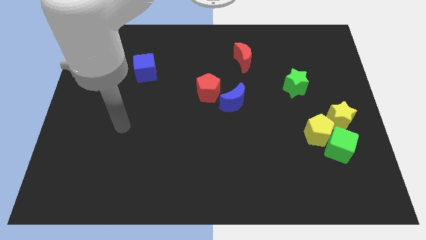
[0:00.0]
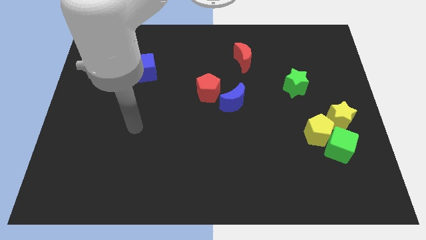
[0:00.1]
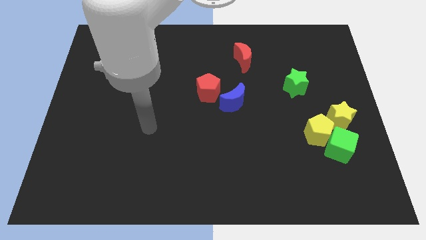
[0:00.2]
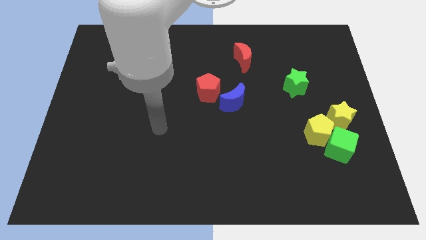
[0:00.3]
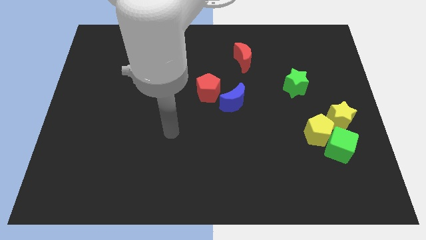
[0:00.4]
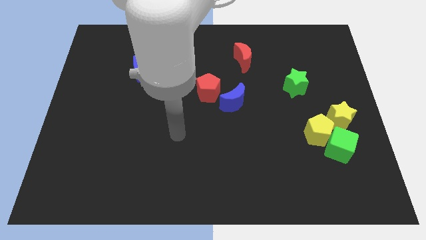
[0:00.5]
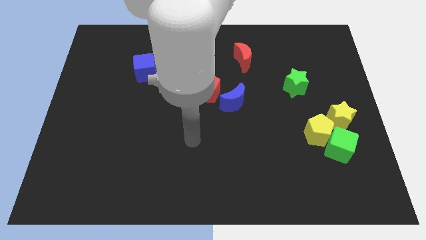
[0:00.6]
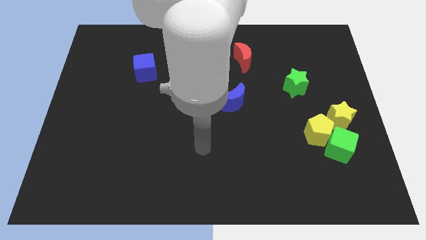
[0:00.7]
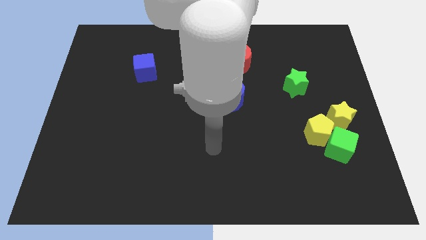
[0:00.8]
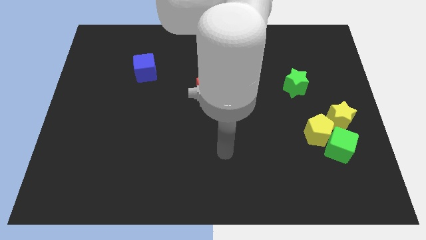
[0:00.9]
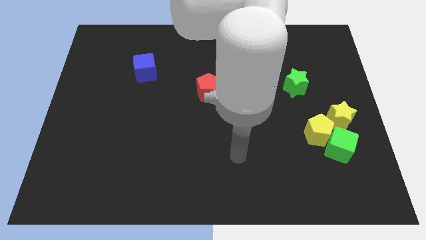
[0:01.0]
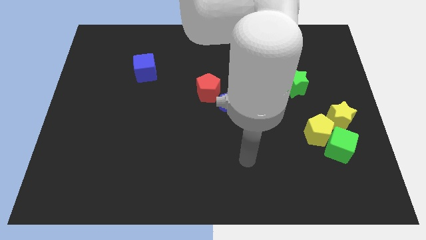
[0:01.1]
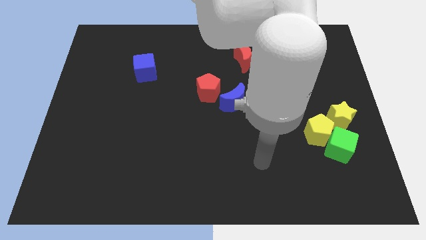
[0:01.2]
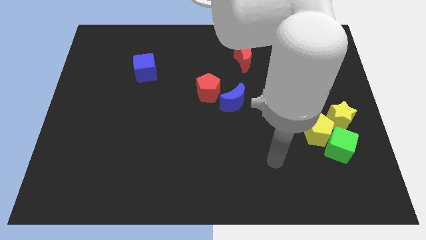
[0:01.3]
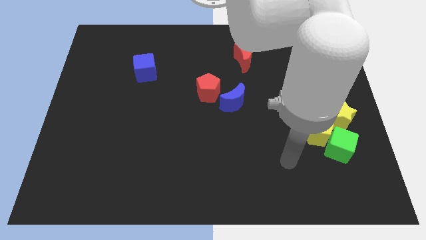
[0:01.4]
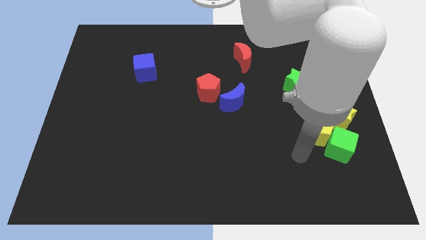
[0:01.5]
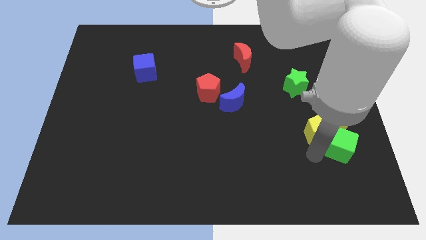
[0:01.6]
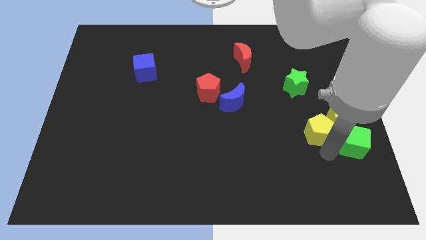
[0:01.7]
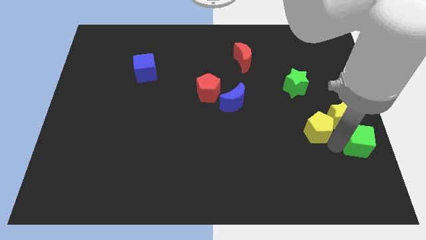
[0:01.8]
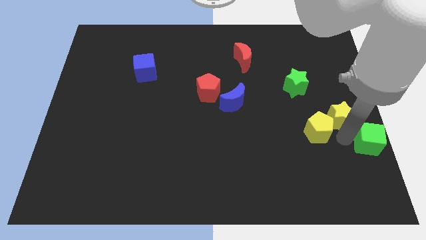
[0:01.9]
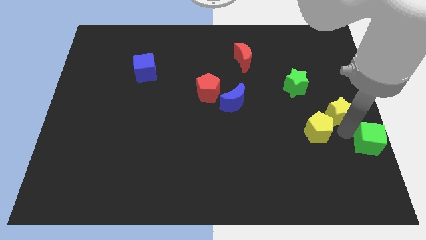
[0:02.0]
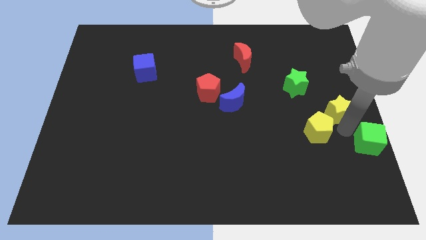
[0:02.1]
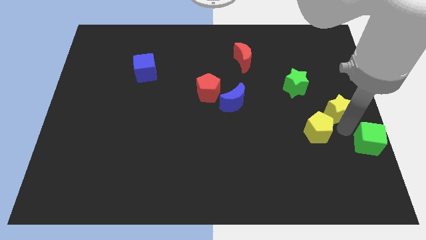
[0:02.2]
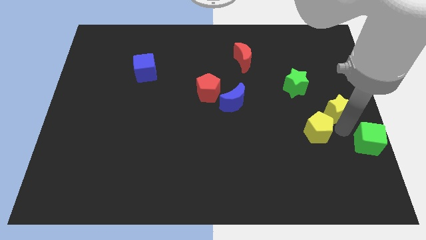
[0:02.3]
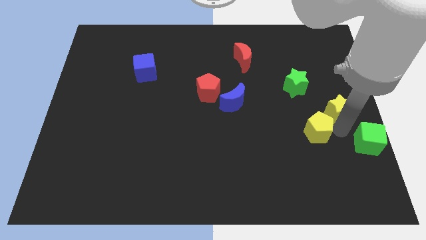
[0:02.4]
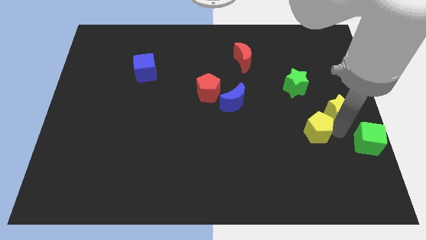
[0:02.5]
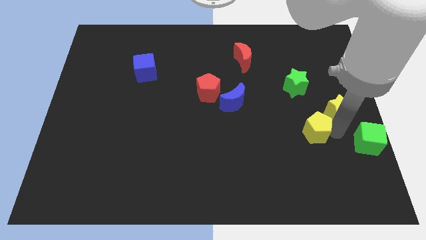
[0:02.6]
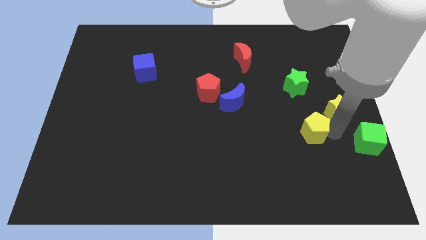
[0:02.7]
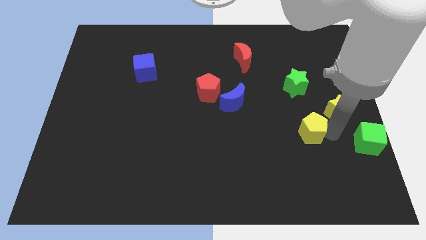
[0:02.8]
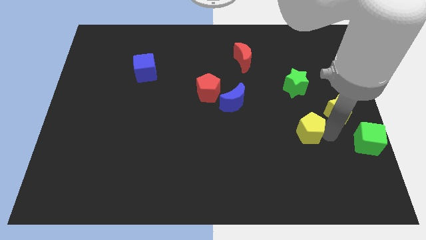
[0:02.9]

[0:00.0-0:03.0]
move the yellow pentagon away from the green cube and yellow star

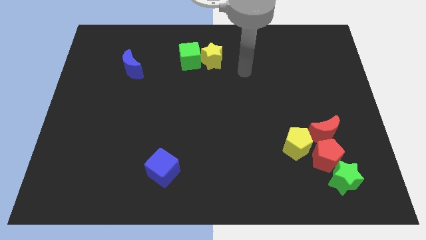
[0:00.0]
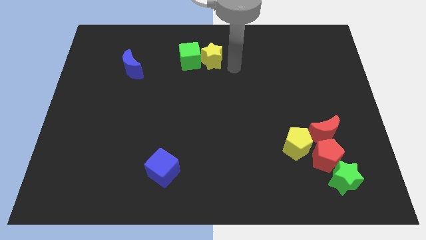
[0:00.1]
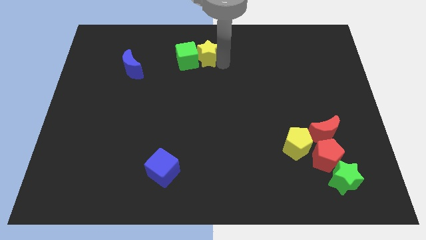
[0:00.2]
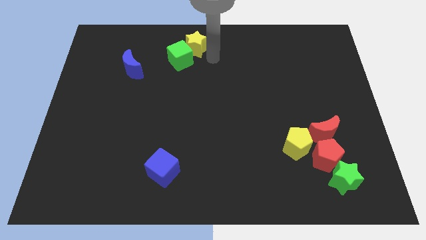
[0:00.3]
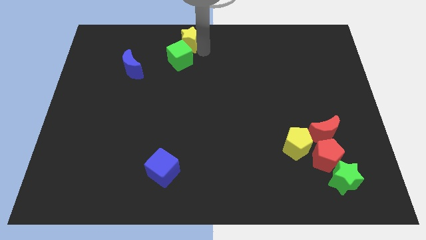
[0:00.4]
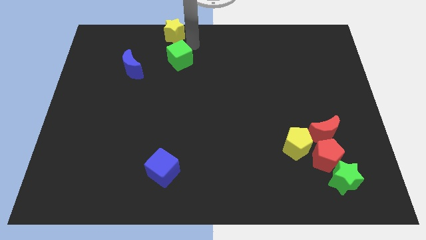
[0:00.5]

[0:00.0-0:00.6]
separate the green cube from the yellow star

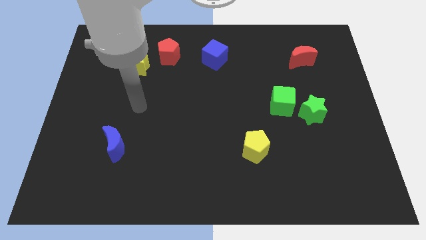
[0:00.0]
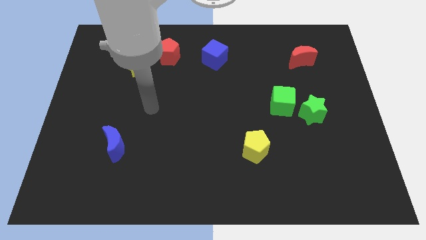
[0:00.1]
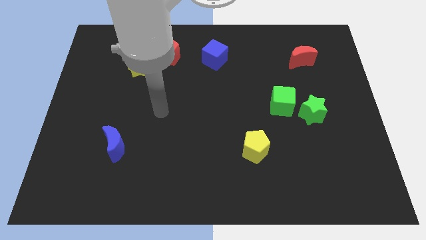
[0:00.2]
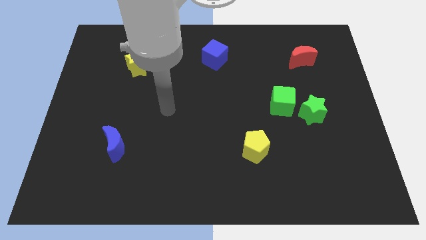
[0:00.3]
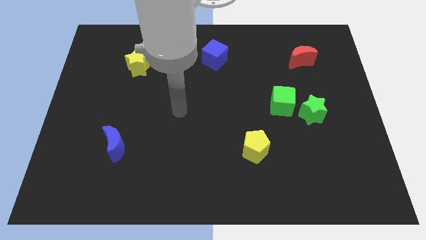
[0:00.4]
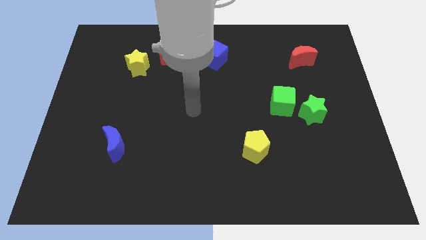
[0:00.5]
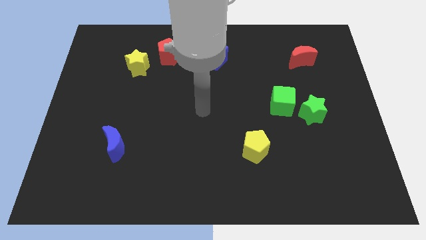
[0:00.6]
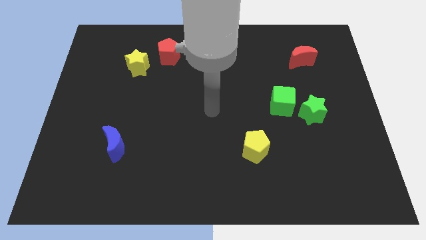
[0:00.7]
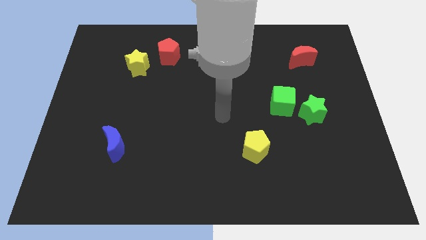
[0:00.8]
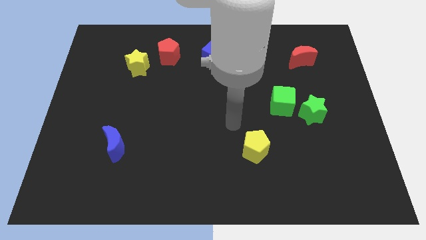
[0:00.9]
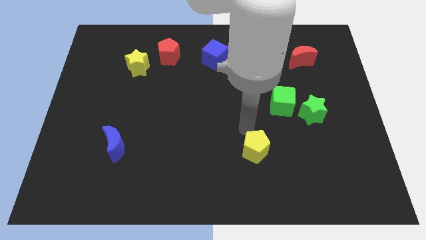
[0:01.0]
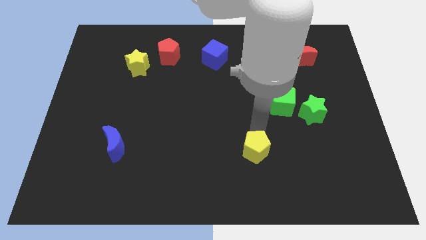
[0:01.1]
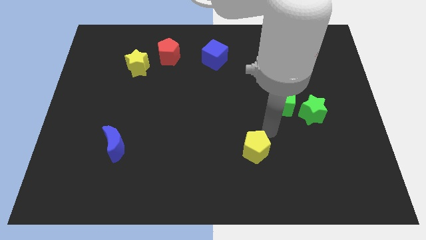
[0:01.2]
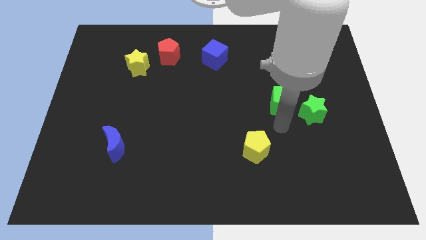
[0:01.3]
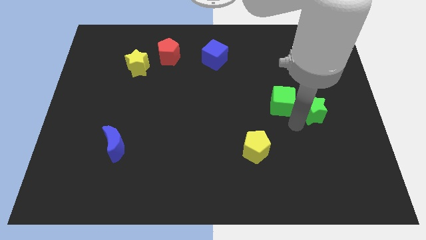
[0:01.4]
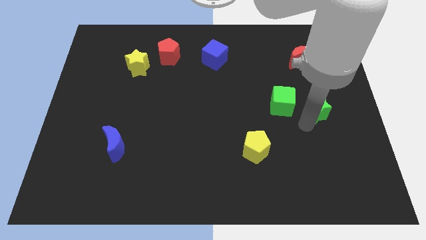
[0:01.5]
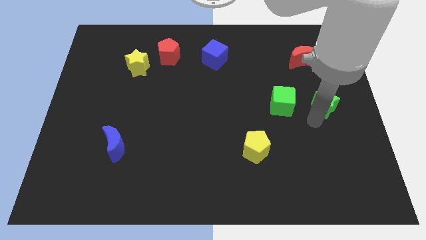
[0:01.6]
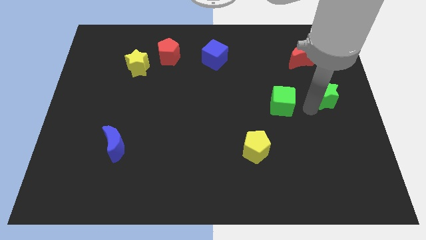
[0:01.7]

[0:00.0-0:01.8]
pull the green cube apart from the green star

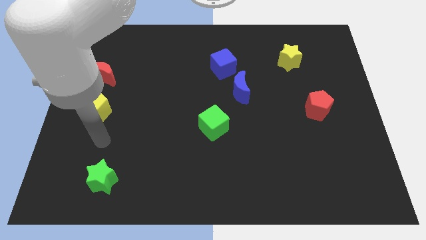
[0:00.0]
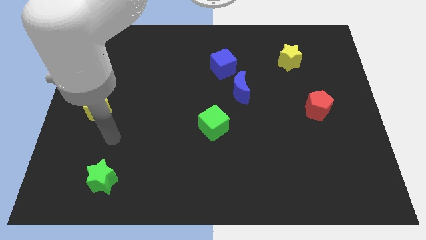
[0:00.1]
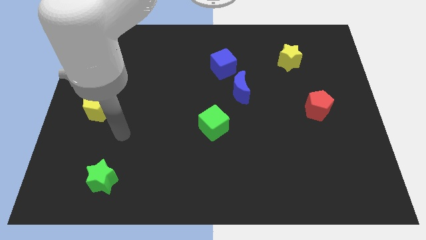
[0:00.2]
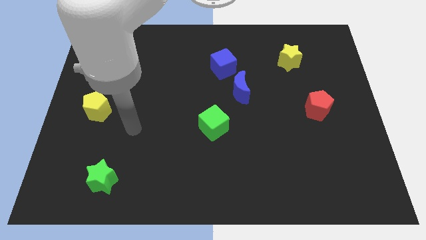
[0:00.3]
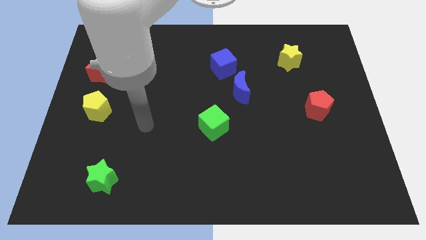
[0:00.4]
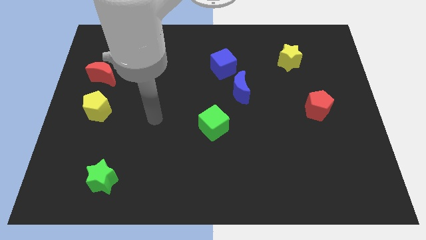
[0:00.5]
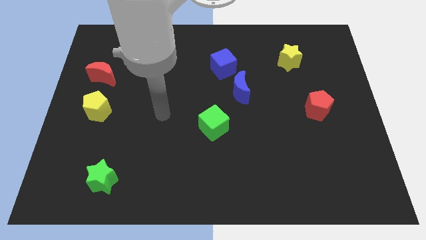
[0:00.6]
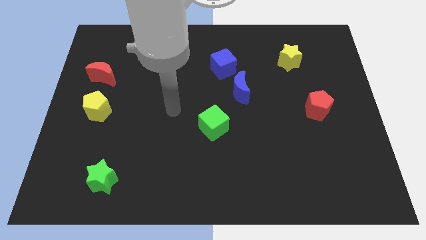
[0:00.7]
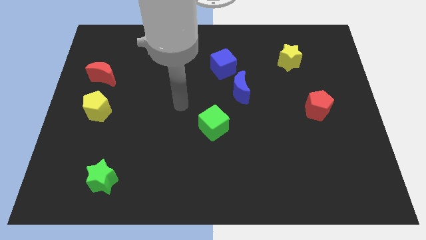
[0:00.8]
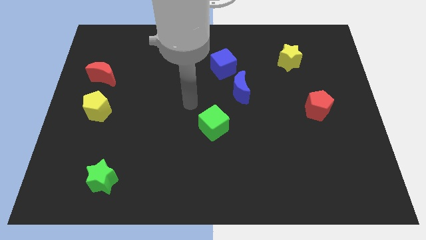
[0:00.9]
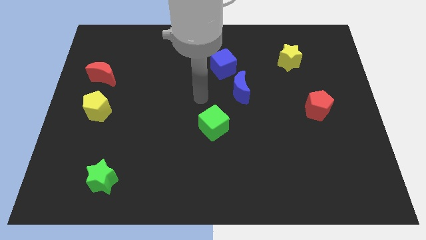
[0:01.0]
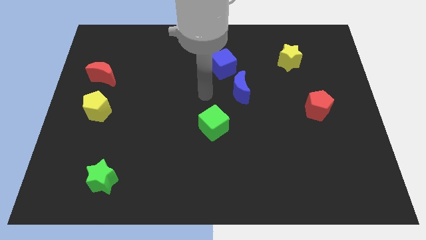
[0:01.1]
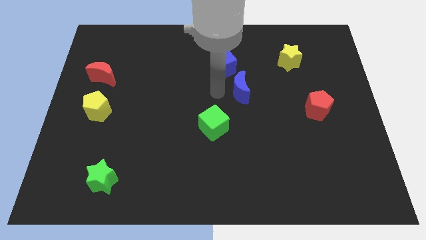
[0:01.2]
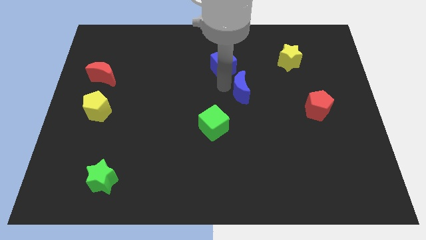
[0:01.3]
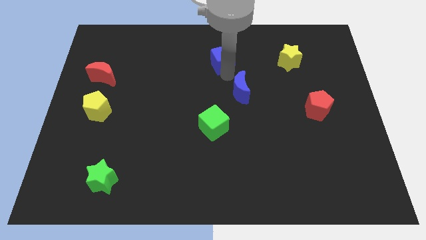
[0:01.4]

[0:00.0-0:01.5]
separate the blue moon from the blue cube

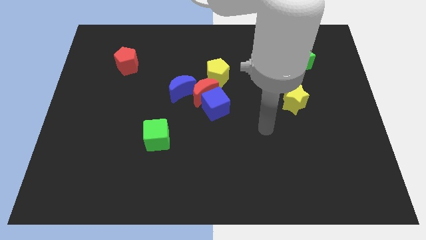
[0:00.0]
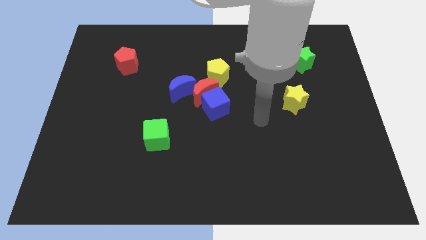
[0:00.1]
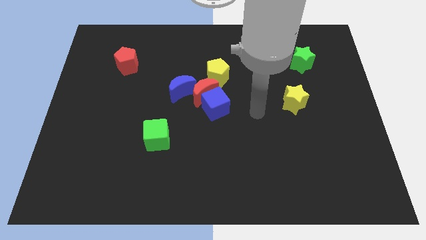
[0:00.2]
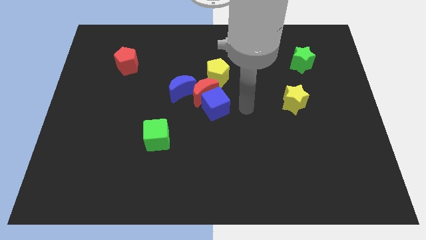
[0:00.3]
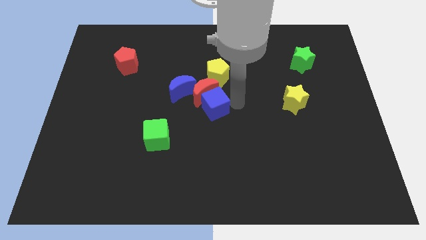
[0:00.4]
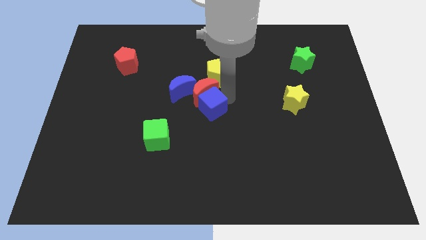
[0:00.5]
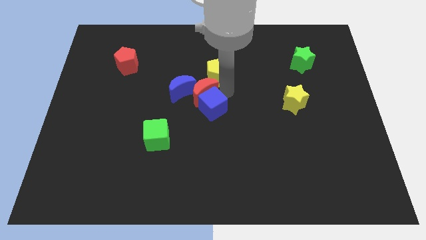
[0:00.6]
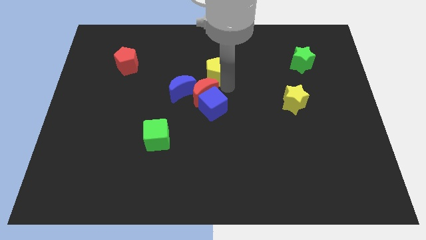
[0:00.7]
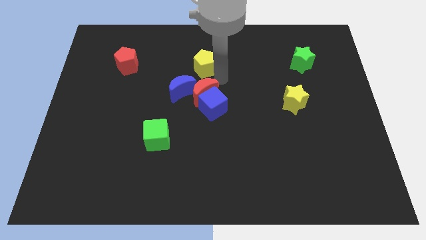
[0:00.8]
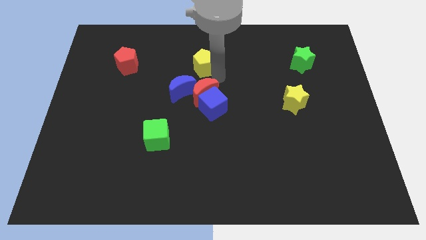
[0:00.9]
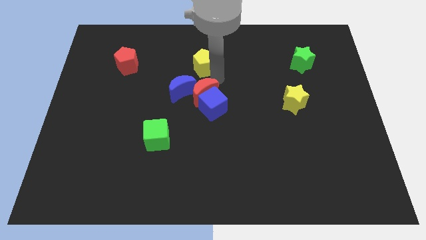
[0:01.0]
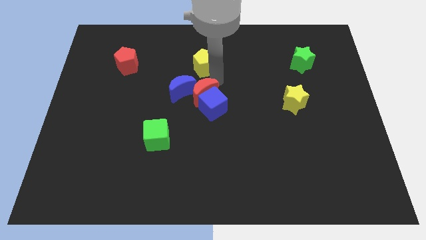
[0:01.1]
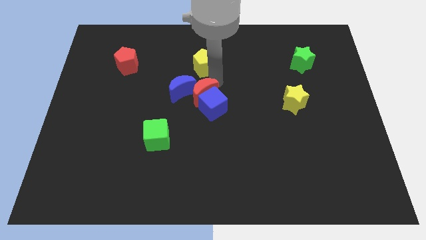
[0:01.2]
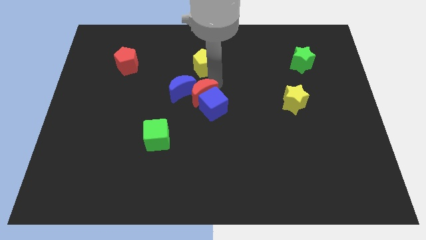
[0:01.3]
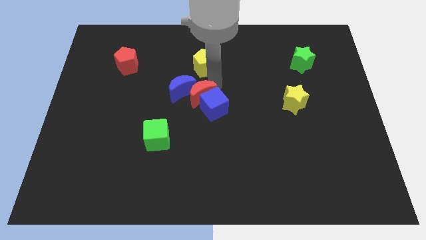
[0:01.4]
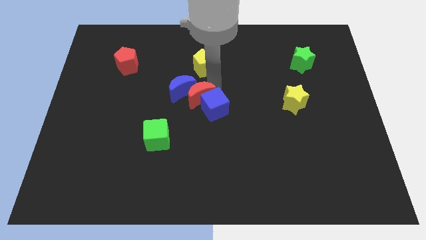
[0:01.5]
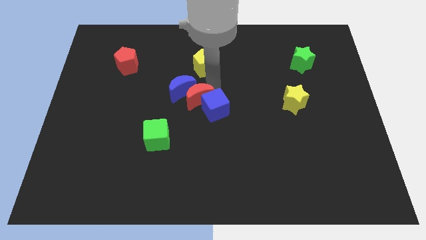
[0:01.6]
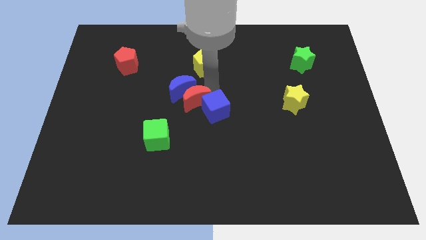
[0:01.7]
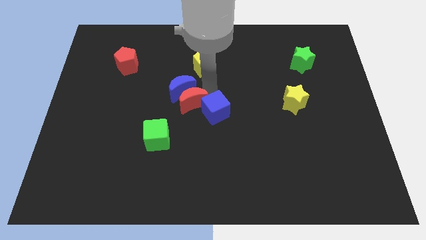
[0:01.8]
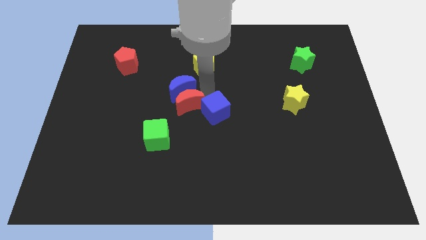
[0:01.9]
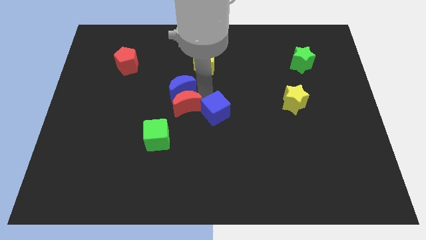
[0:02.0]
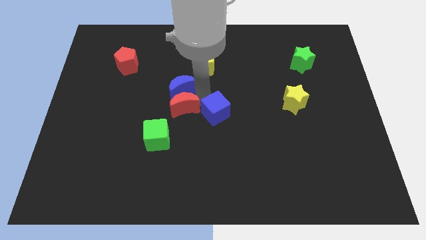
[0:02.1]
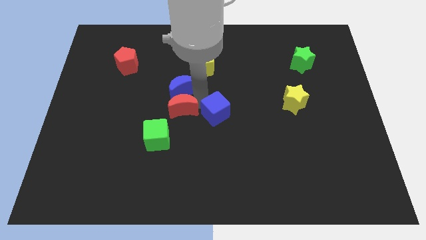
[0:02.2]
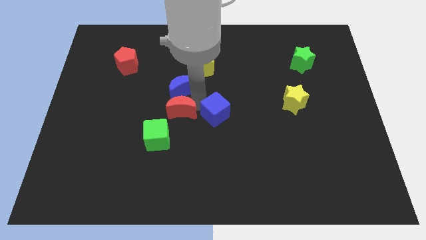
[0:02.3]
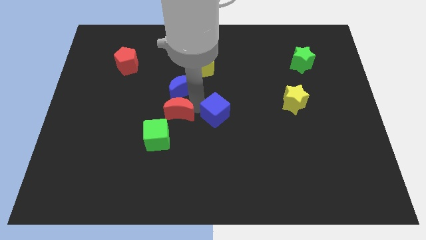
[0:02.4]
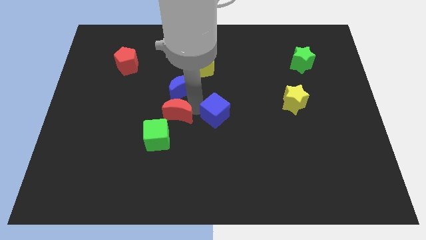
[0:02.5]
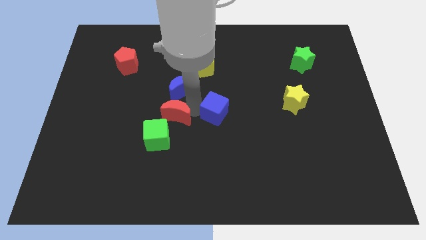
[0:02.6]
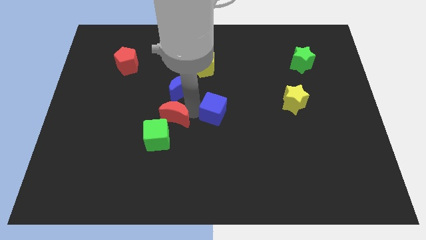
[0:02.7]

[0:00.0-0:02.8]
pull the red moon apart from the group of blocks
